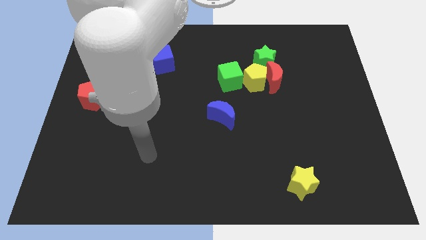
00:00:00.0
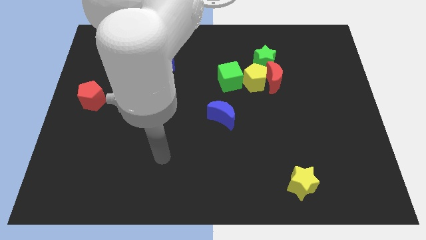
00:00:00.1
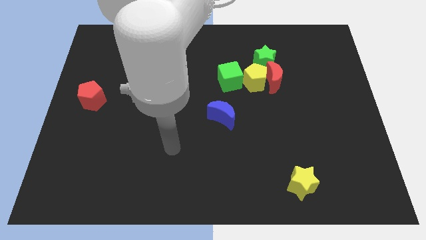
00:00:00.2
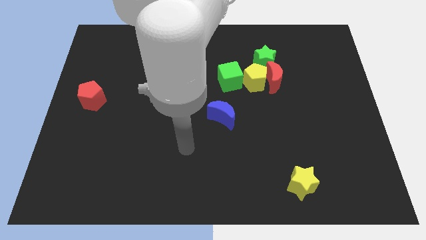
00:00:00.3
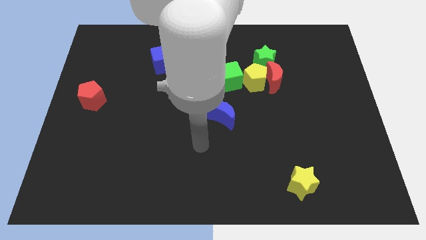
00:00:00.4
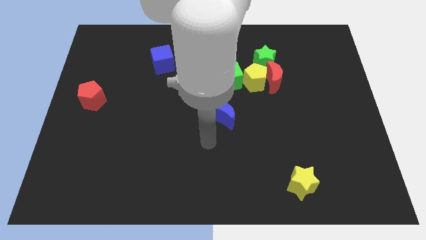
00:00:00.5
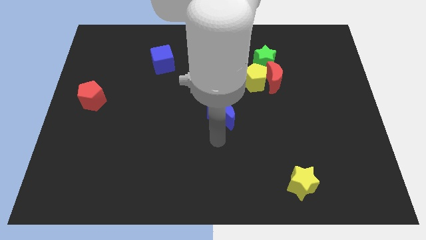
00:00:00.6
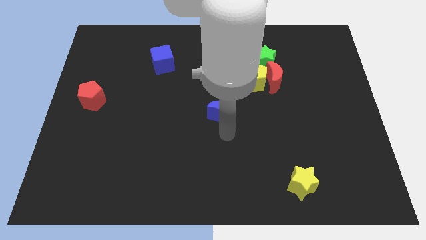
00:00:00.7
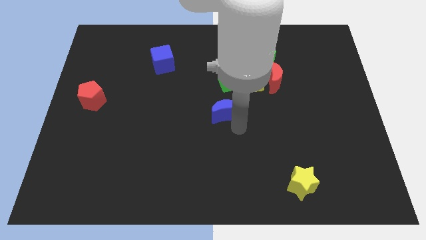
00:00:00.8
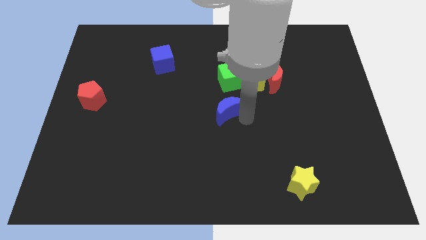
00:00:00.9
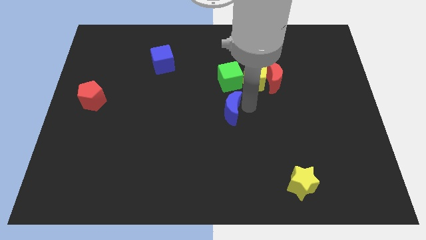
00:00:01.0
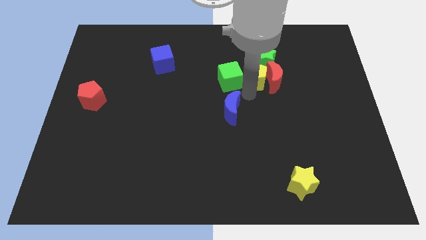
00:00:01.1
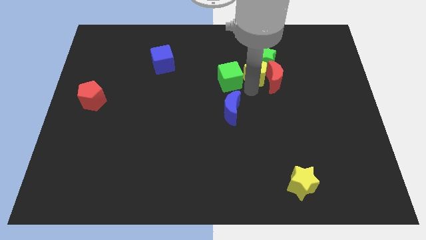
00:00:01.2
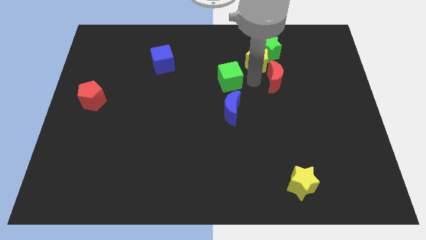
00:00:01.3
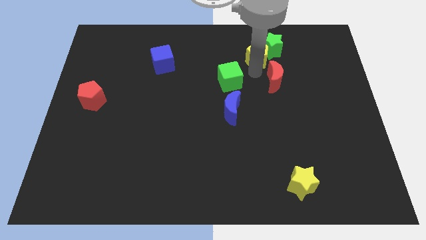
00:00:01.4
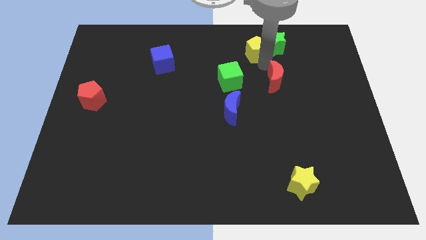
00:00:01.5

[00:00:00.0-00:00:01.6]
separate the red moon from the yellow pentagon and green star

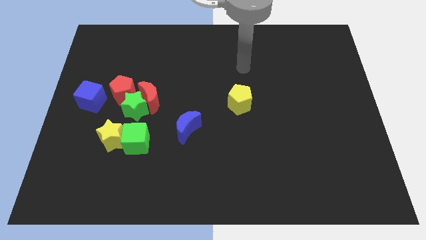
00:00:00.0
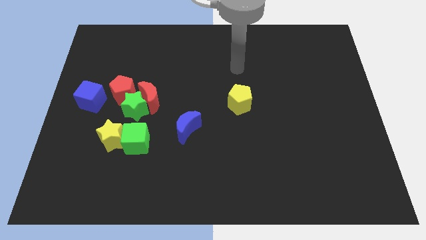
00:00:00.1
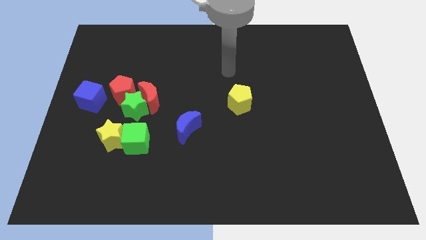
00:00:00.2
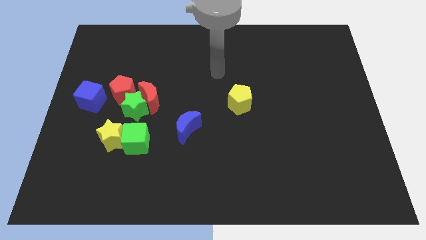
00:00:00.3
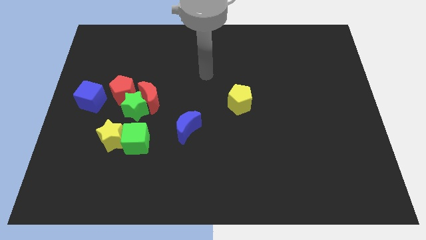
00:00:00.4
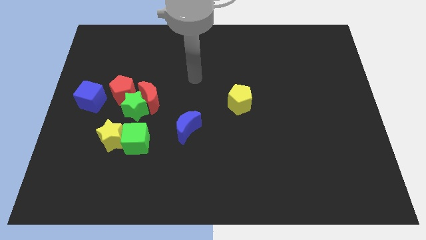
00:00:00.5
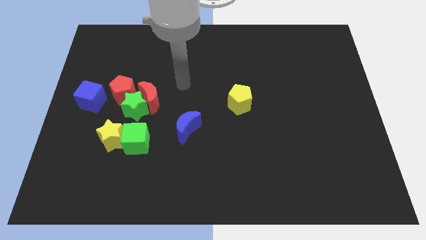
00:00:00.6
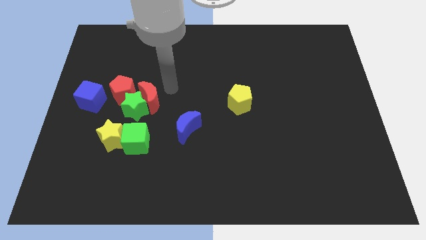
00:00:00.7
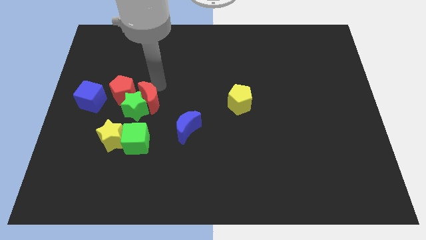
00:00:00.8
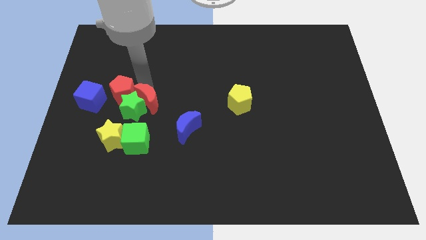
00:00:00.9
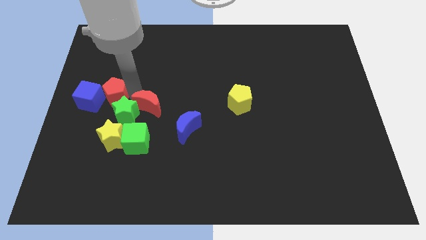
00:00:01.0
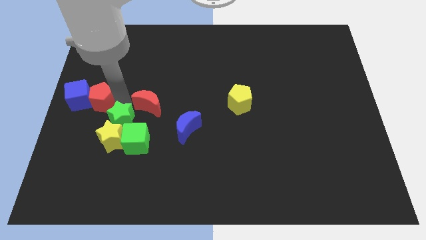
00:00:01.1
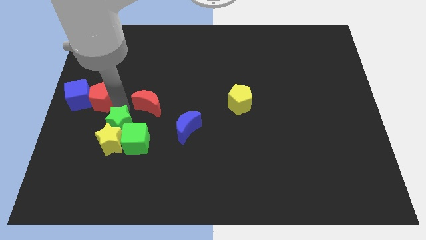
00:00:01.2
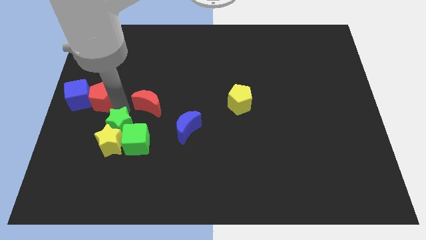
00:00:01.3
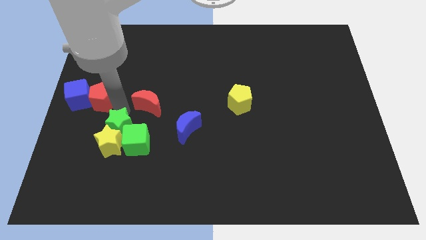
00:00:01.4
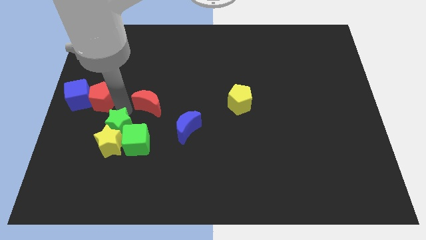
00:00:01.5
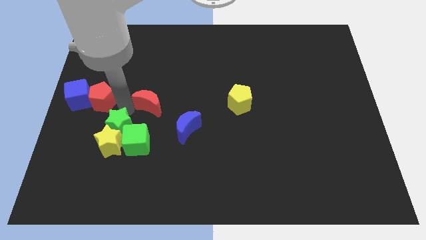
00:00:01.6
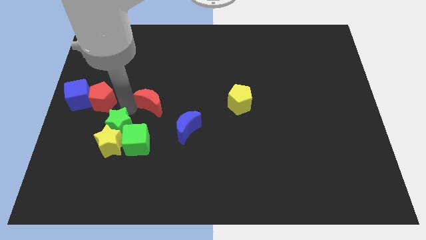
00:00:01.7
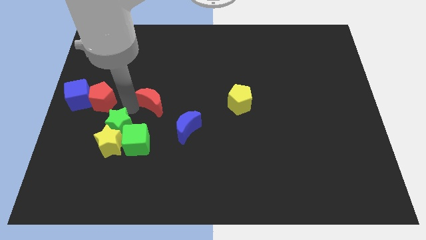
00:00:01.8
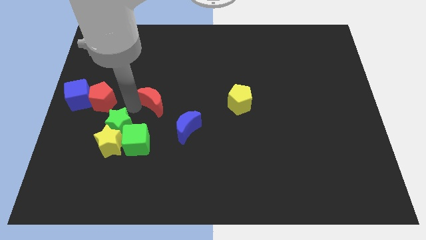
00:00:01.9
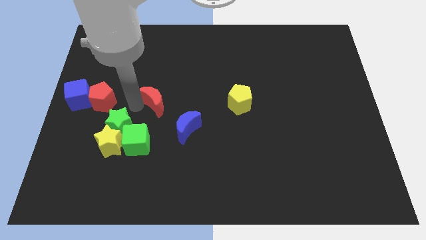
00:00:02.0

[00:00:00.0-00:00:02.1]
separate the red moon from the green star and red pentagon

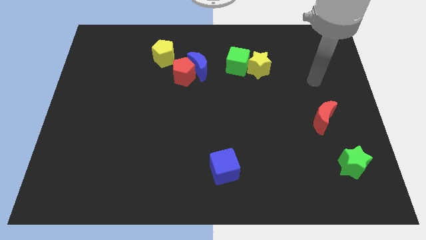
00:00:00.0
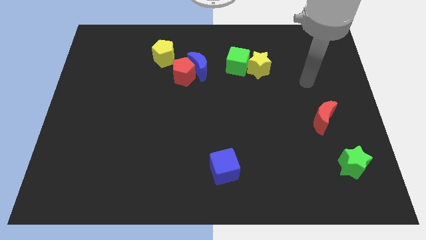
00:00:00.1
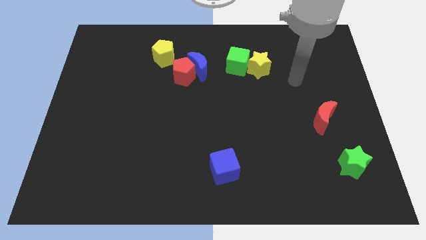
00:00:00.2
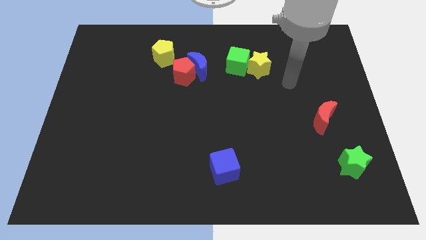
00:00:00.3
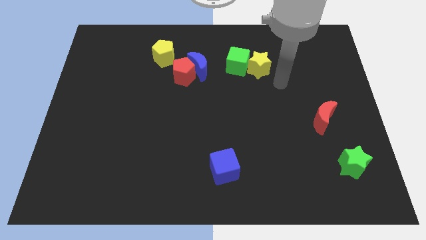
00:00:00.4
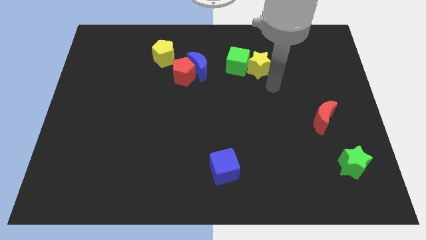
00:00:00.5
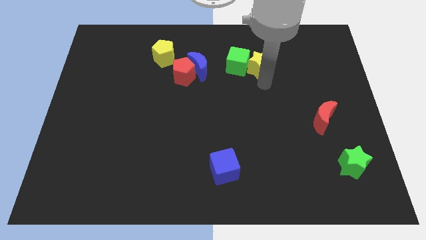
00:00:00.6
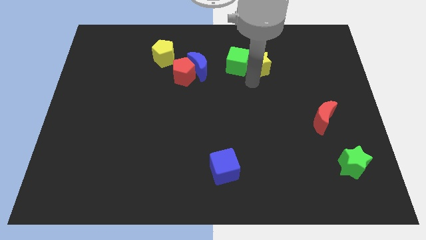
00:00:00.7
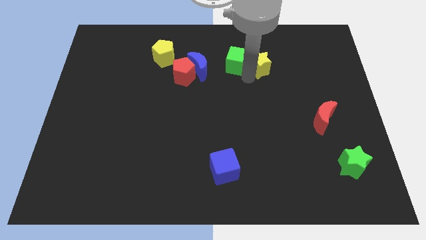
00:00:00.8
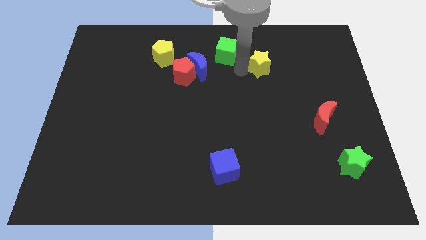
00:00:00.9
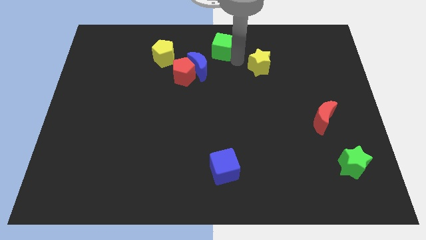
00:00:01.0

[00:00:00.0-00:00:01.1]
move the yellow star away from the green cube

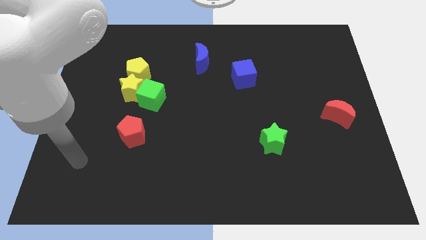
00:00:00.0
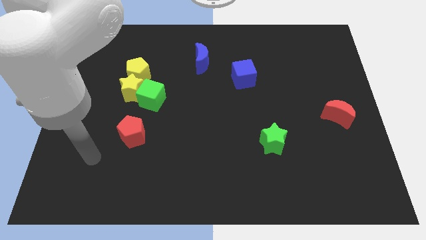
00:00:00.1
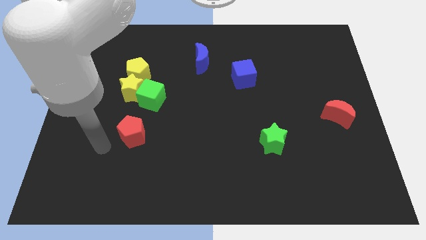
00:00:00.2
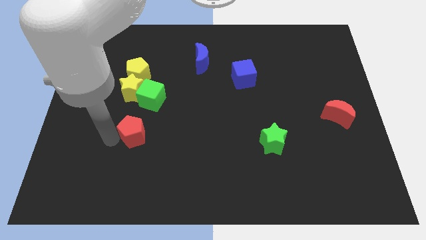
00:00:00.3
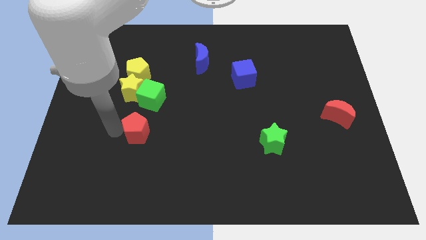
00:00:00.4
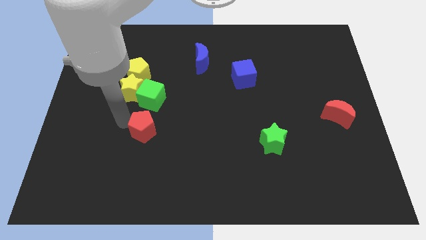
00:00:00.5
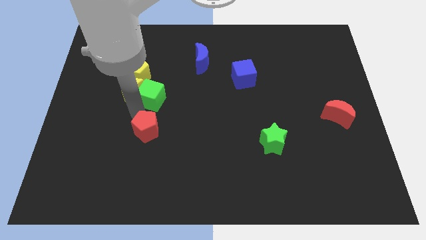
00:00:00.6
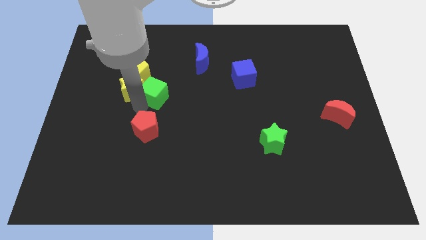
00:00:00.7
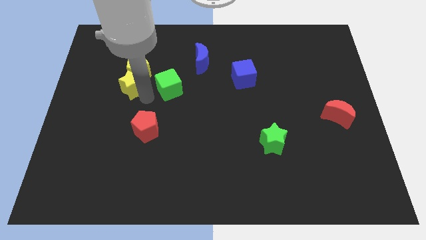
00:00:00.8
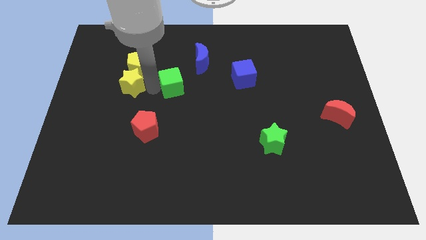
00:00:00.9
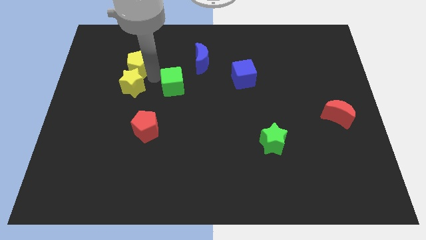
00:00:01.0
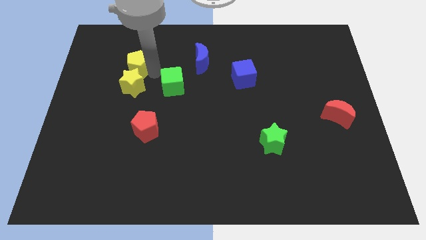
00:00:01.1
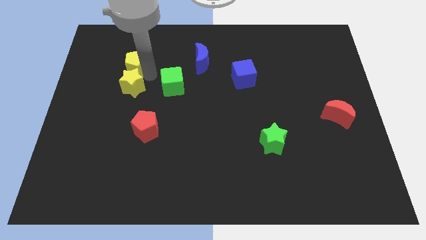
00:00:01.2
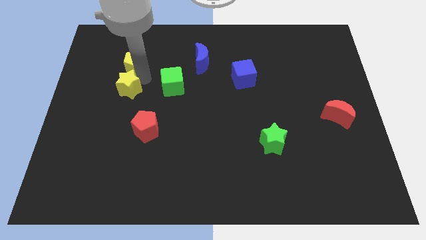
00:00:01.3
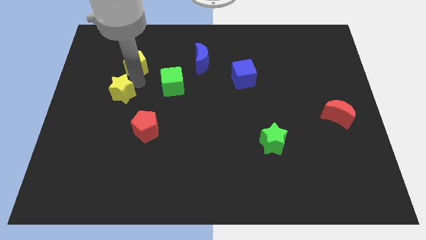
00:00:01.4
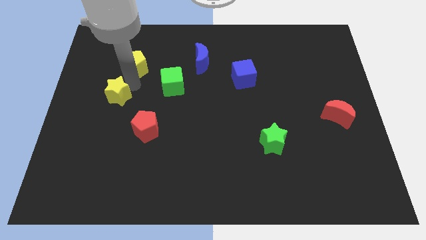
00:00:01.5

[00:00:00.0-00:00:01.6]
separate the yellow star from the green cube and yellow pentagon

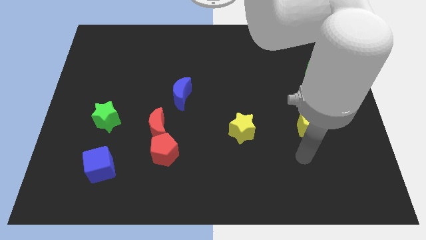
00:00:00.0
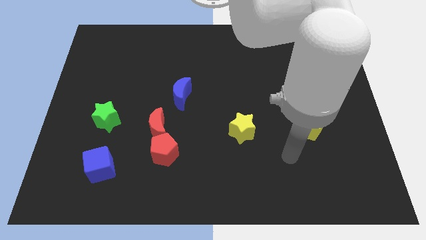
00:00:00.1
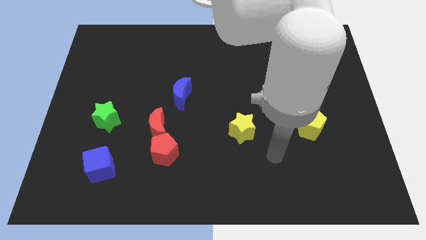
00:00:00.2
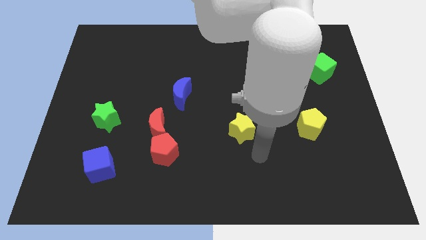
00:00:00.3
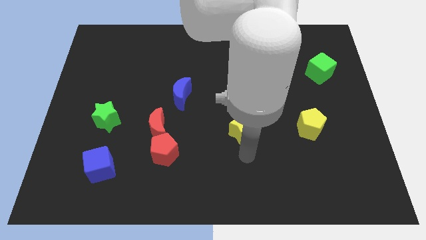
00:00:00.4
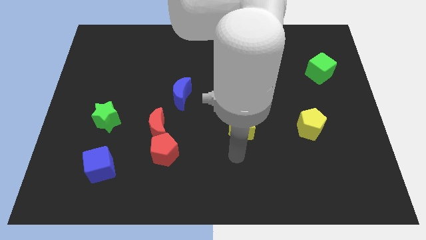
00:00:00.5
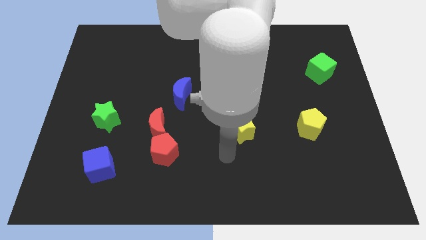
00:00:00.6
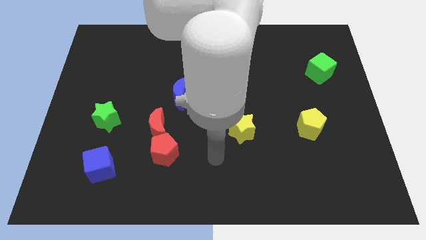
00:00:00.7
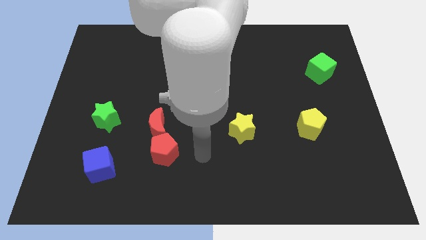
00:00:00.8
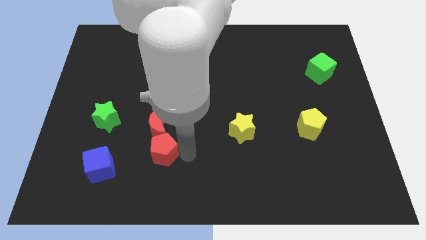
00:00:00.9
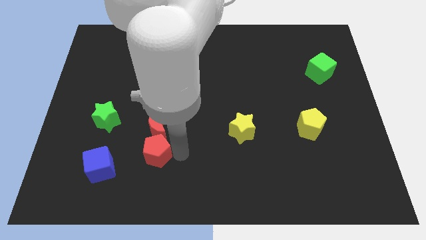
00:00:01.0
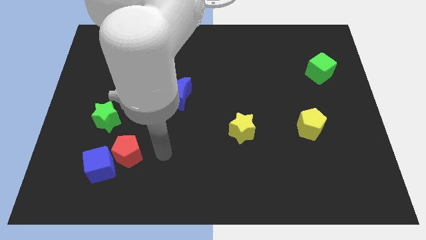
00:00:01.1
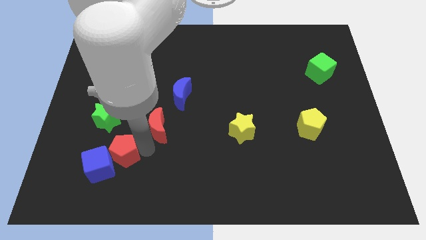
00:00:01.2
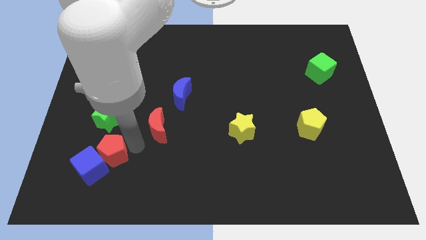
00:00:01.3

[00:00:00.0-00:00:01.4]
move the red moon away from the red pentagon

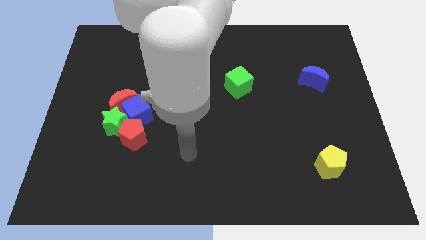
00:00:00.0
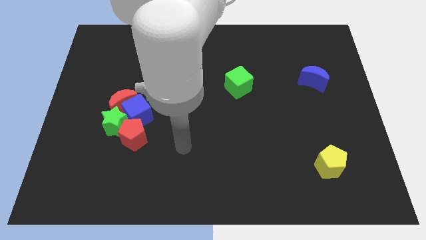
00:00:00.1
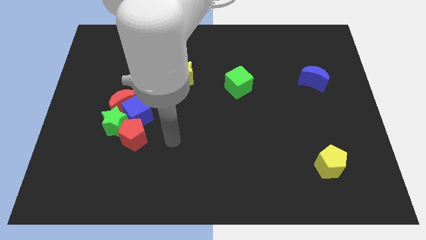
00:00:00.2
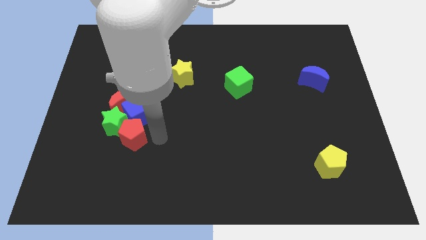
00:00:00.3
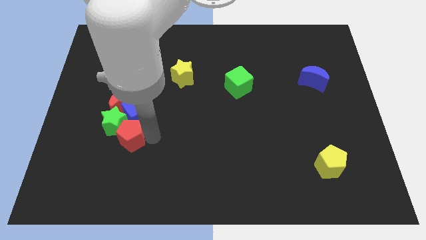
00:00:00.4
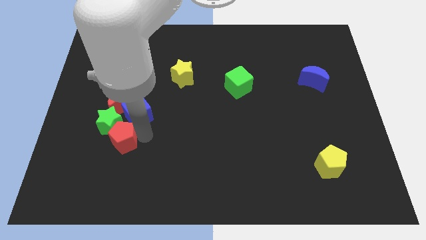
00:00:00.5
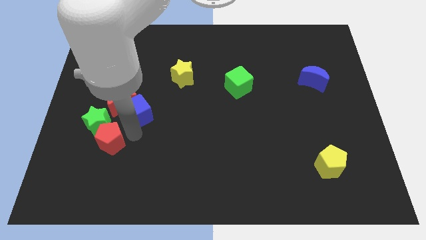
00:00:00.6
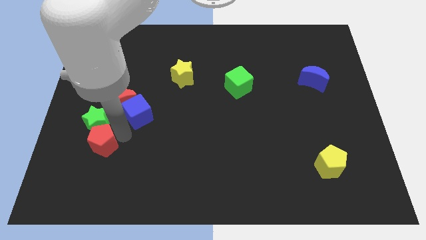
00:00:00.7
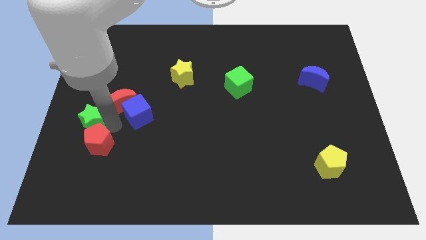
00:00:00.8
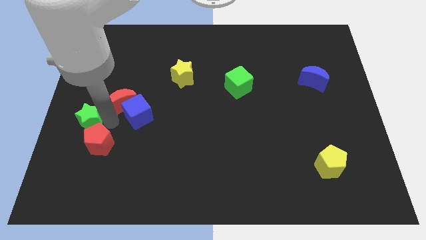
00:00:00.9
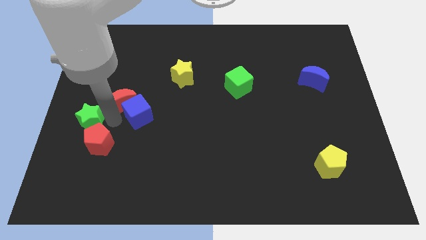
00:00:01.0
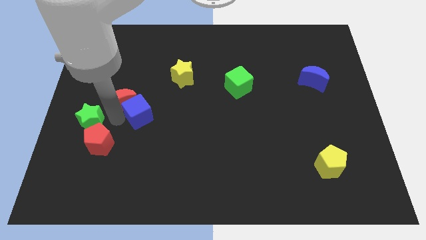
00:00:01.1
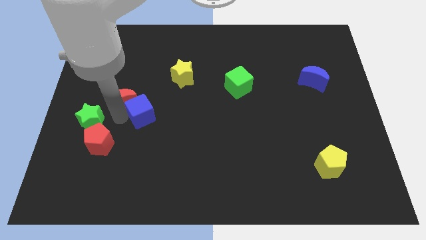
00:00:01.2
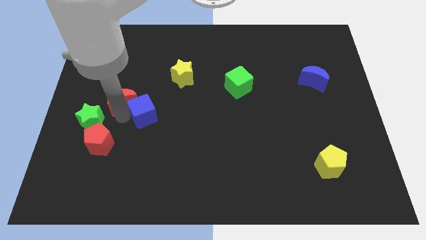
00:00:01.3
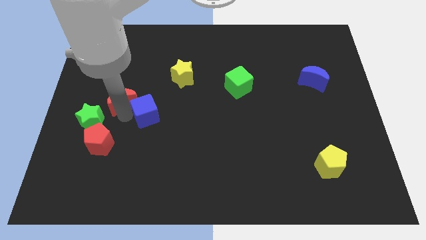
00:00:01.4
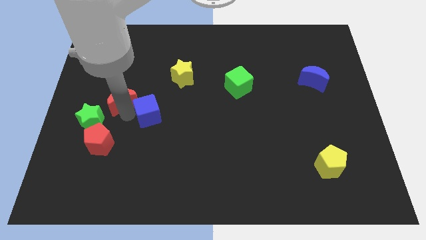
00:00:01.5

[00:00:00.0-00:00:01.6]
move the blue cube away from the red moon, green star, and red pentagon
